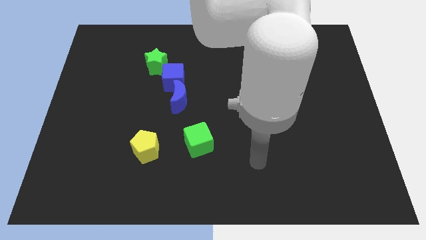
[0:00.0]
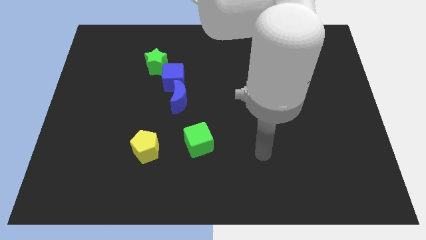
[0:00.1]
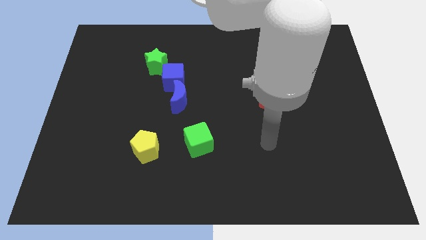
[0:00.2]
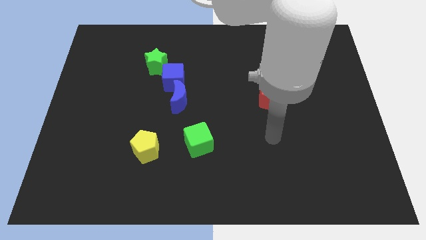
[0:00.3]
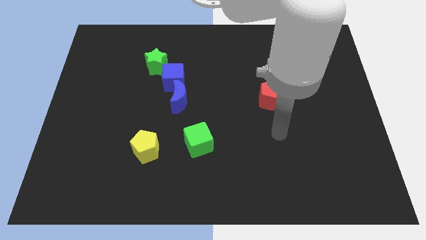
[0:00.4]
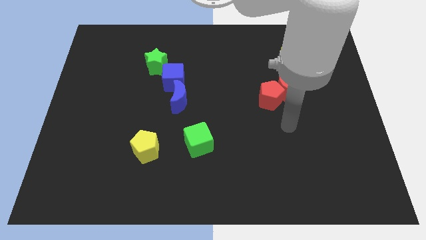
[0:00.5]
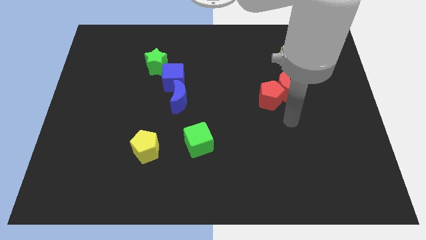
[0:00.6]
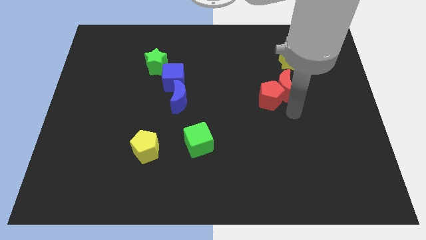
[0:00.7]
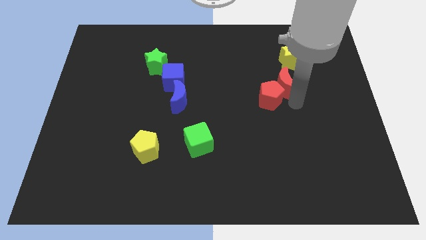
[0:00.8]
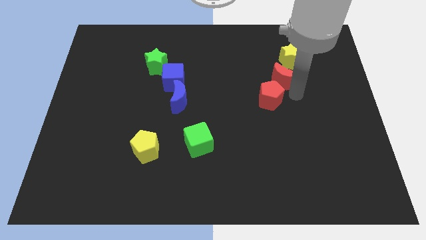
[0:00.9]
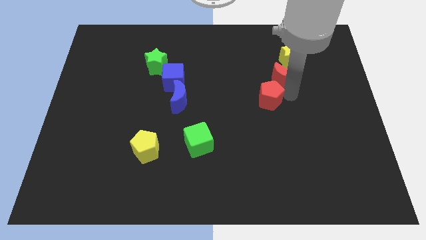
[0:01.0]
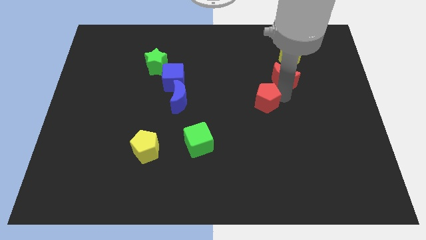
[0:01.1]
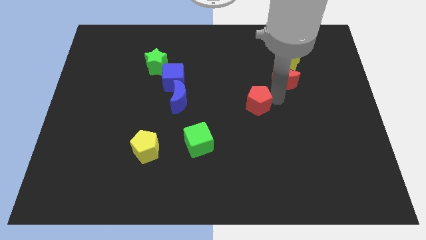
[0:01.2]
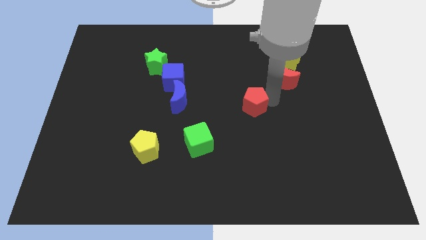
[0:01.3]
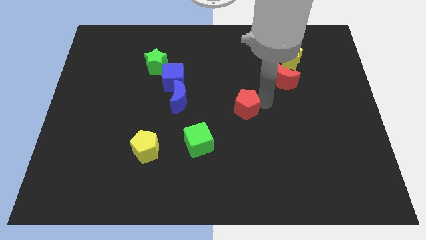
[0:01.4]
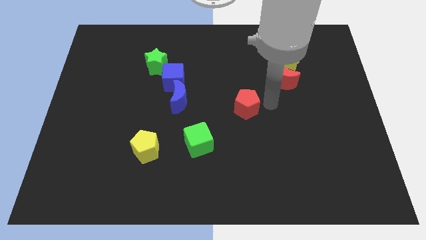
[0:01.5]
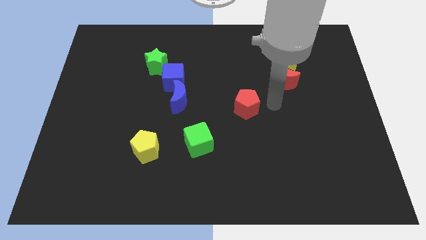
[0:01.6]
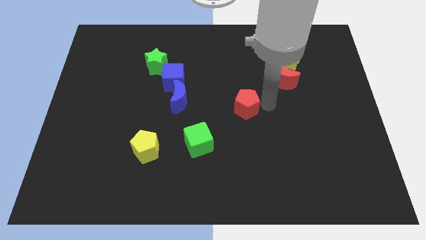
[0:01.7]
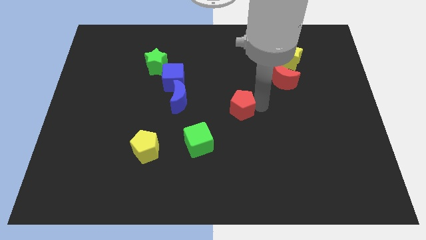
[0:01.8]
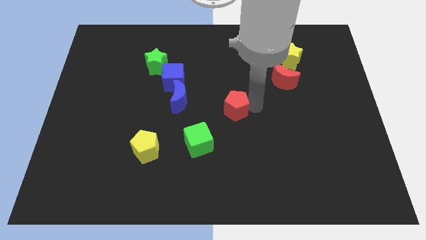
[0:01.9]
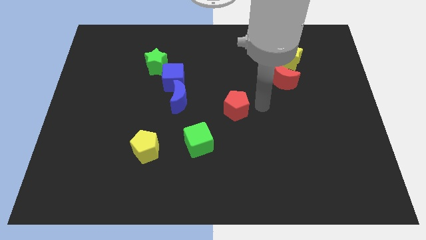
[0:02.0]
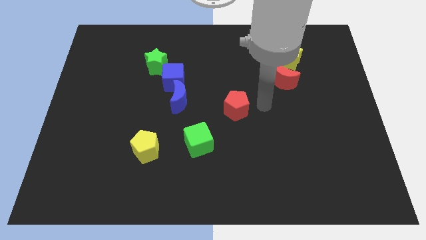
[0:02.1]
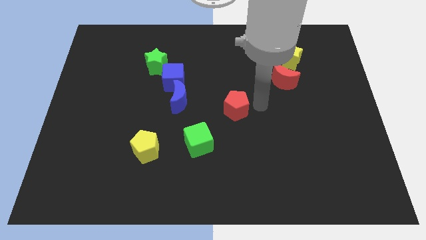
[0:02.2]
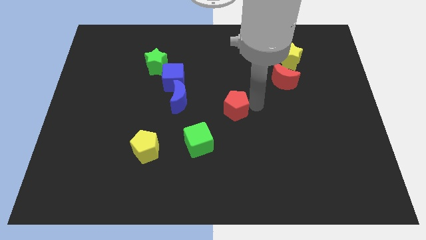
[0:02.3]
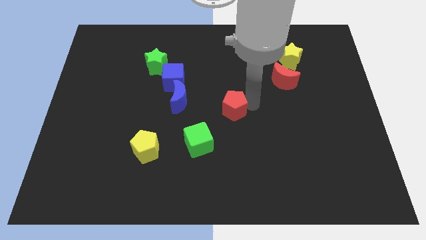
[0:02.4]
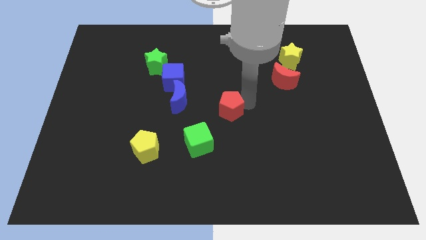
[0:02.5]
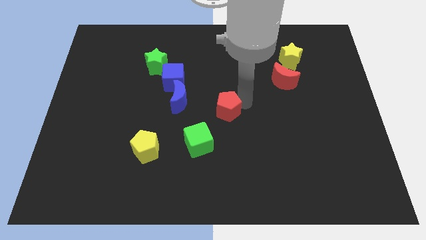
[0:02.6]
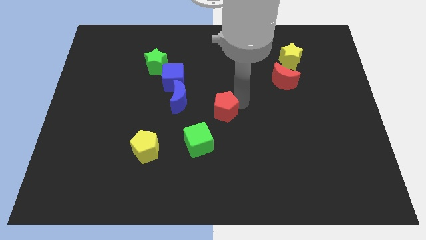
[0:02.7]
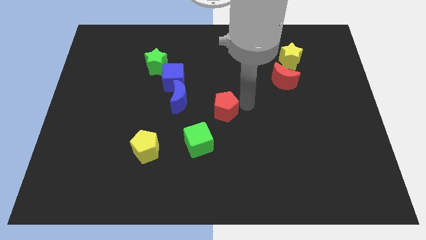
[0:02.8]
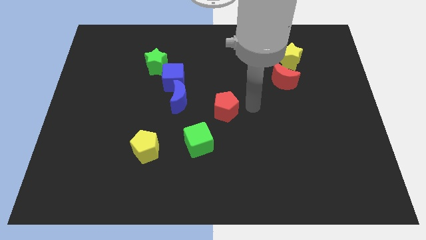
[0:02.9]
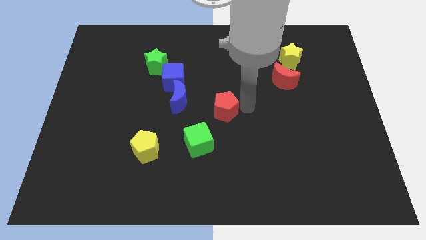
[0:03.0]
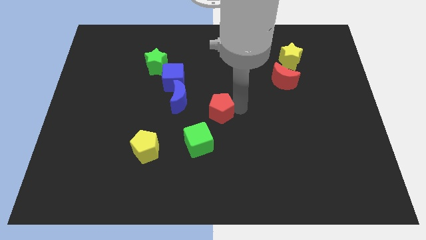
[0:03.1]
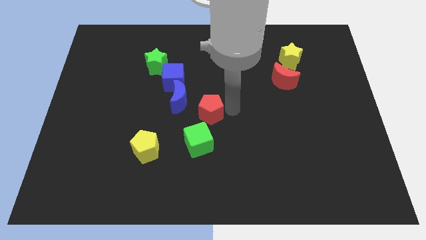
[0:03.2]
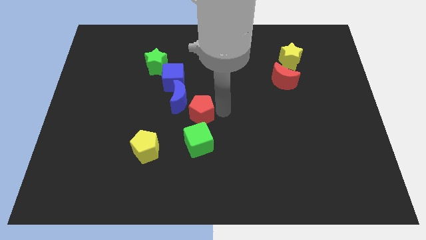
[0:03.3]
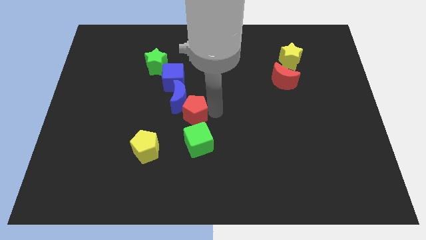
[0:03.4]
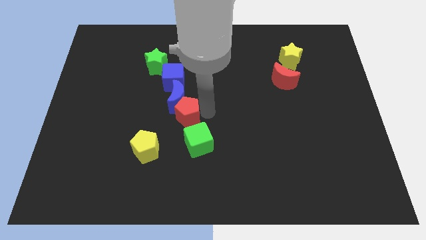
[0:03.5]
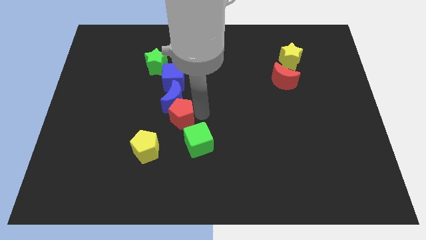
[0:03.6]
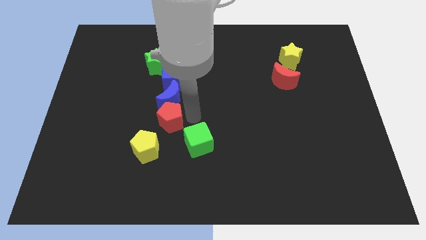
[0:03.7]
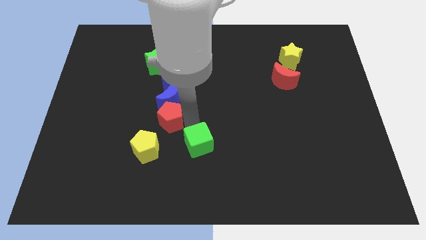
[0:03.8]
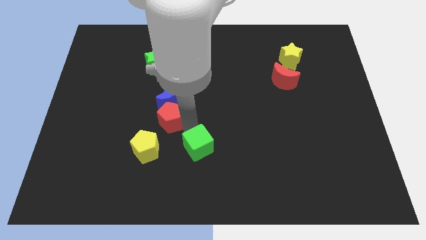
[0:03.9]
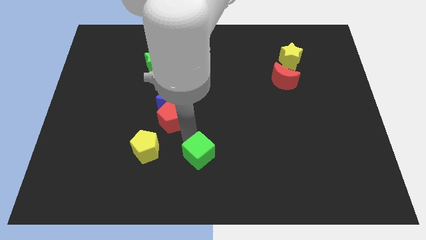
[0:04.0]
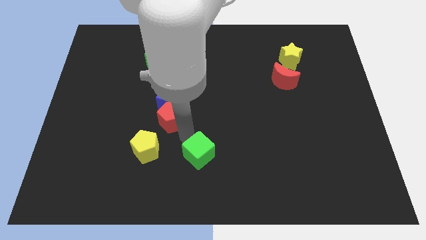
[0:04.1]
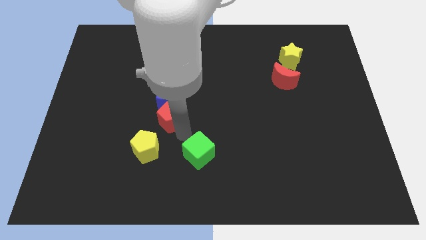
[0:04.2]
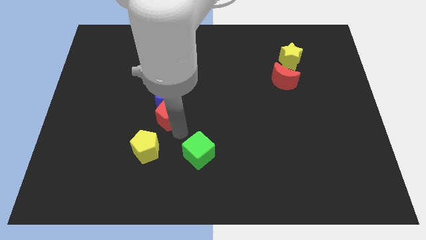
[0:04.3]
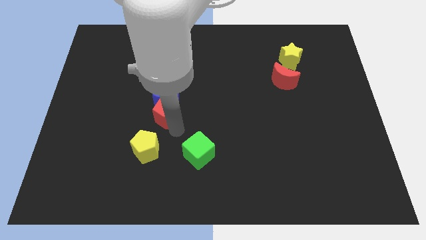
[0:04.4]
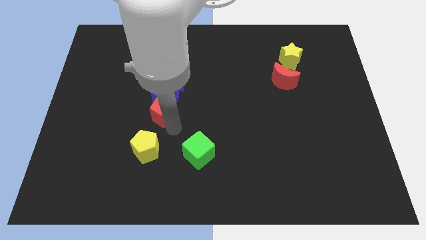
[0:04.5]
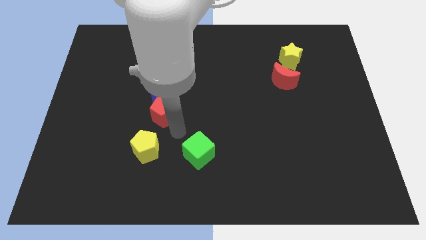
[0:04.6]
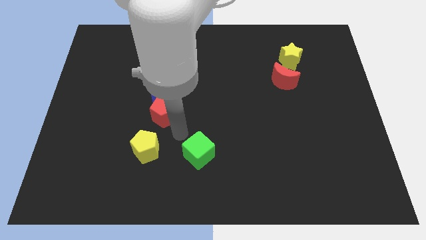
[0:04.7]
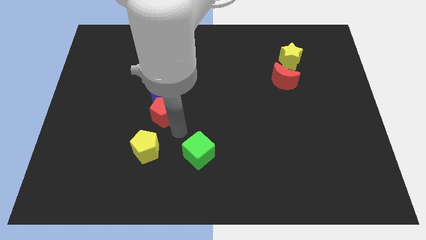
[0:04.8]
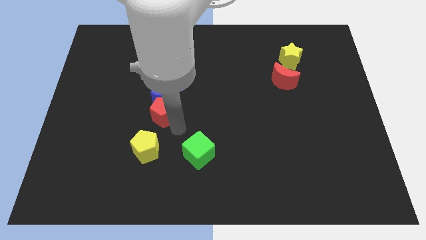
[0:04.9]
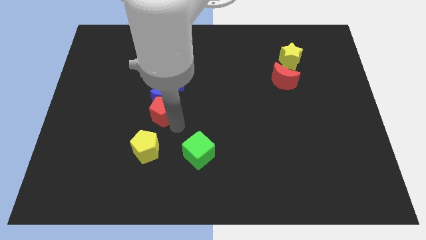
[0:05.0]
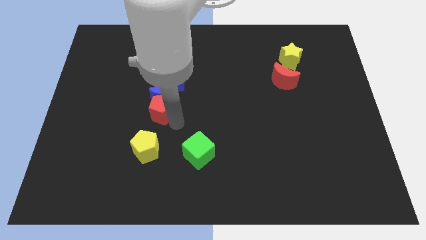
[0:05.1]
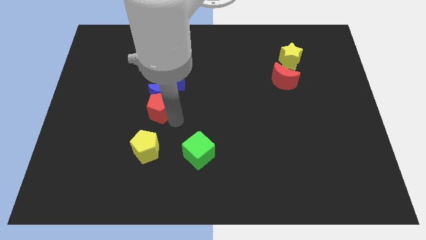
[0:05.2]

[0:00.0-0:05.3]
put the red pentagon diagonally down and to the left of the blue cube

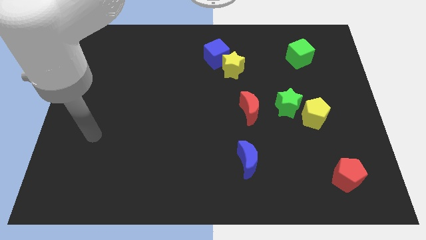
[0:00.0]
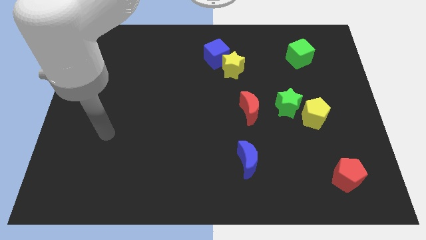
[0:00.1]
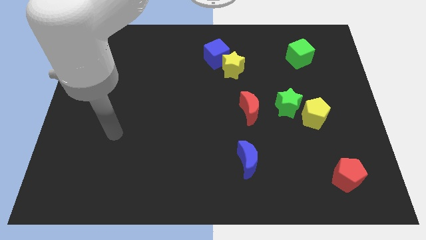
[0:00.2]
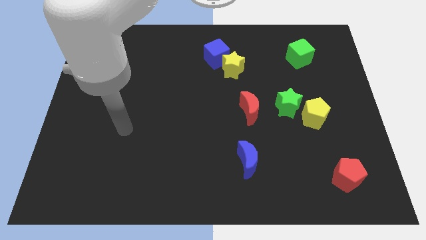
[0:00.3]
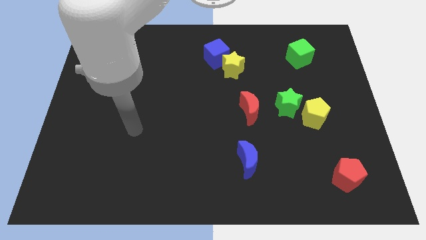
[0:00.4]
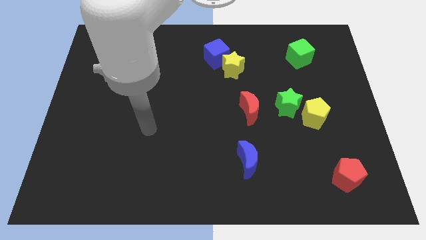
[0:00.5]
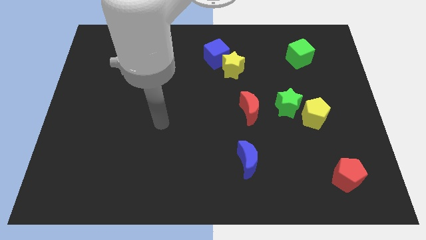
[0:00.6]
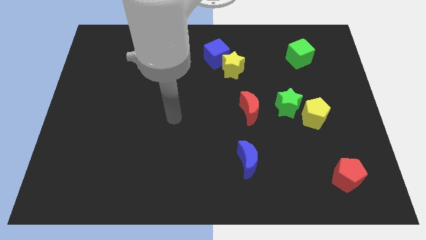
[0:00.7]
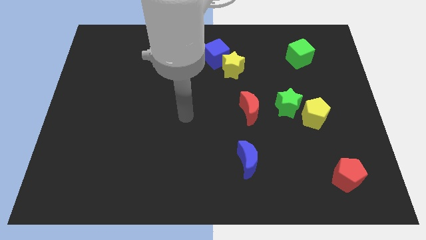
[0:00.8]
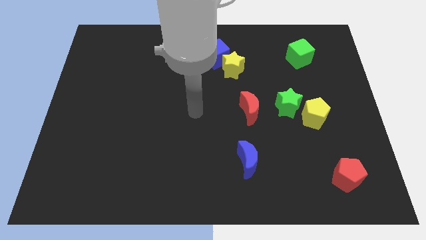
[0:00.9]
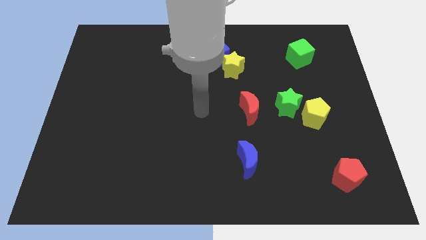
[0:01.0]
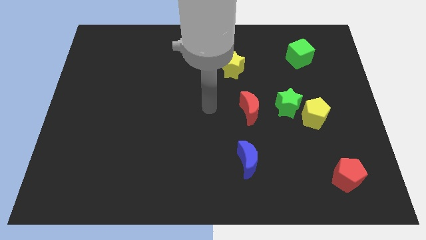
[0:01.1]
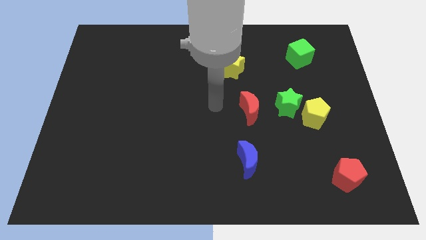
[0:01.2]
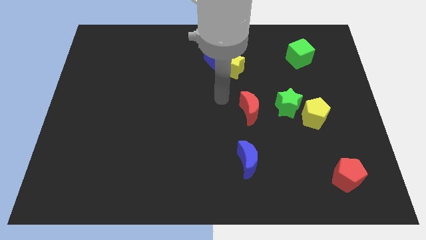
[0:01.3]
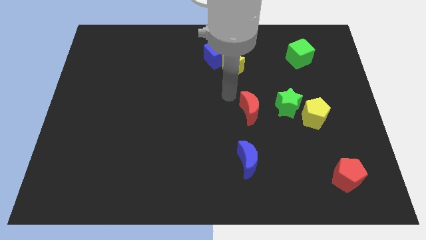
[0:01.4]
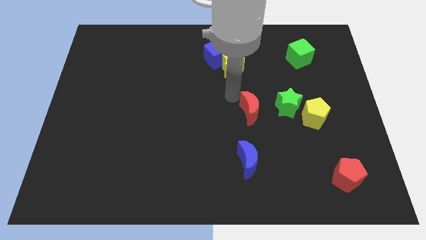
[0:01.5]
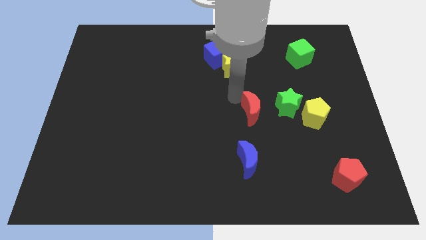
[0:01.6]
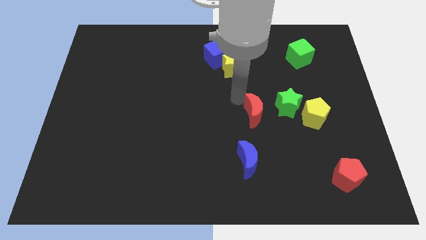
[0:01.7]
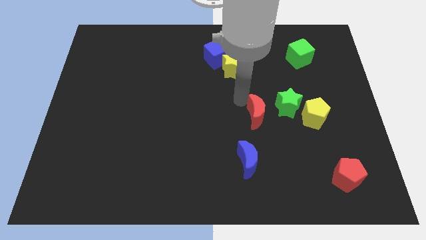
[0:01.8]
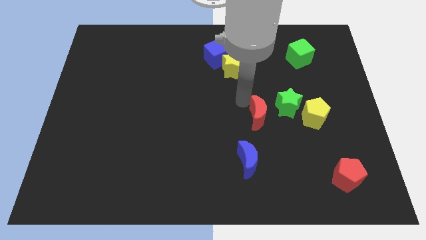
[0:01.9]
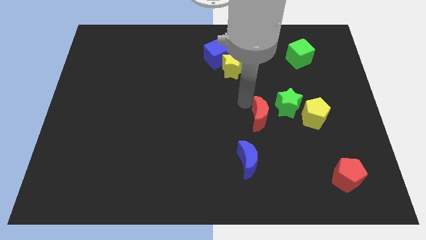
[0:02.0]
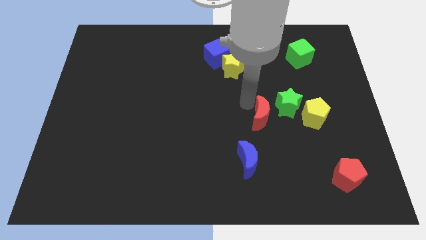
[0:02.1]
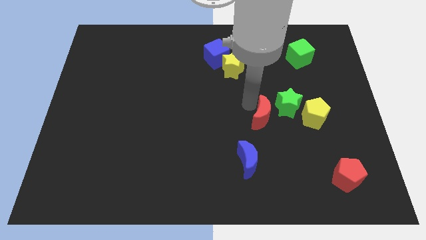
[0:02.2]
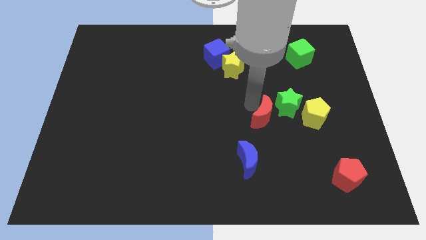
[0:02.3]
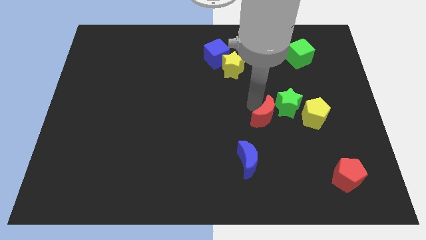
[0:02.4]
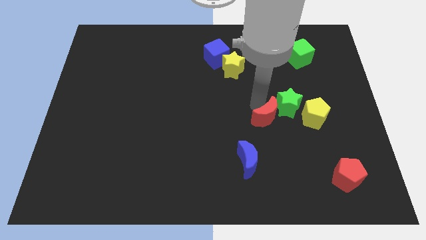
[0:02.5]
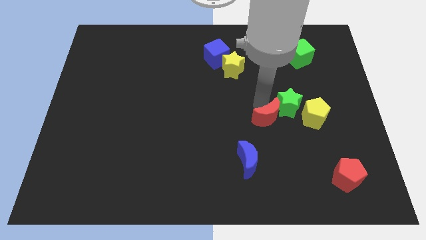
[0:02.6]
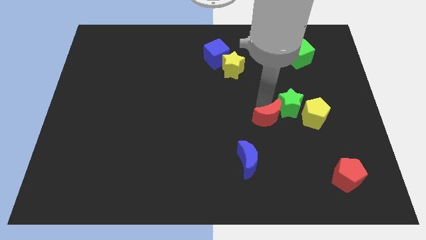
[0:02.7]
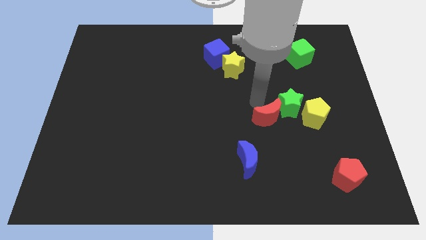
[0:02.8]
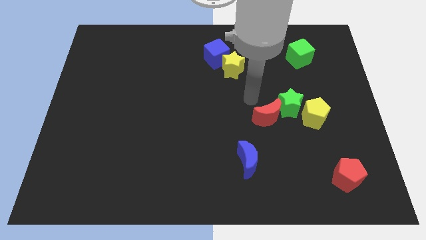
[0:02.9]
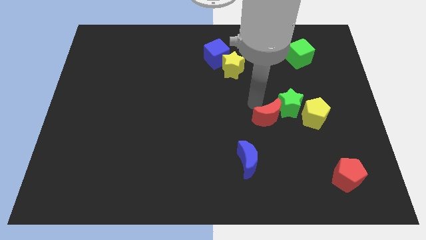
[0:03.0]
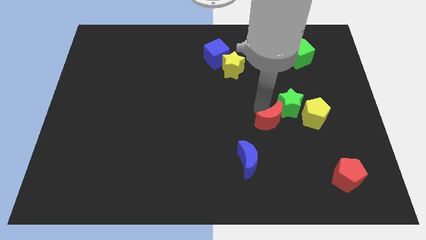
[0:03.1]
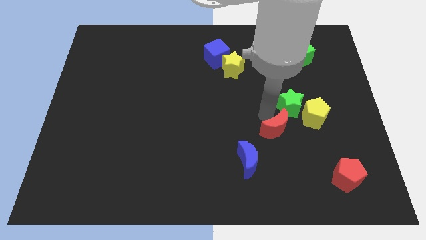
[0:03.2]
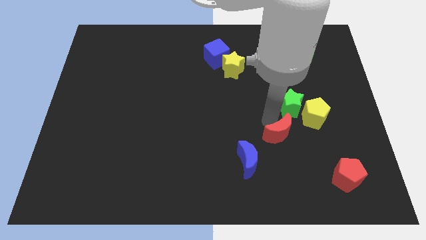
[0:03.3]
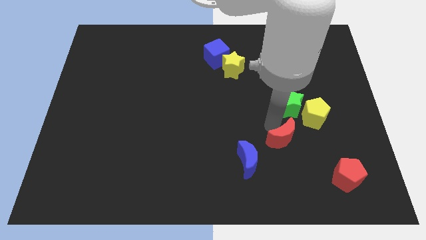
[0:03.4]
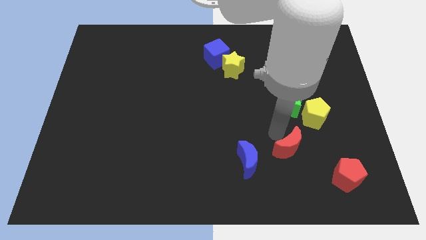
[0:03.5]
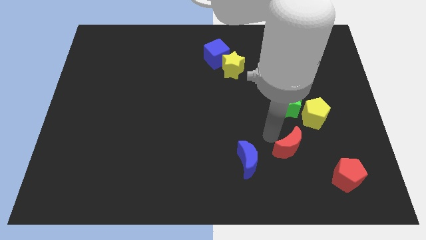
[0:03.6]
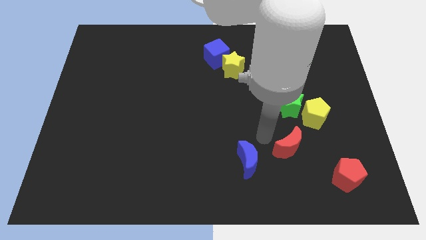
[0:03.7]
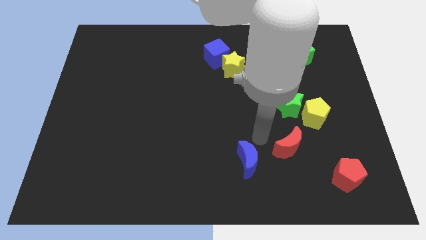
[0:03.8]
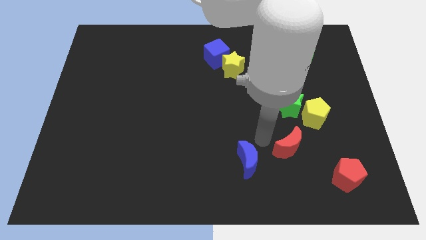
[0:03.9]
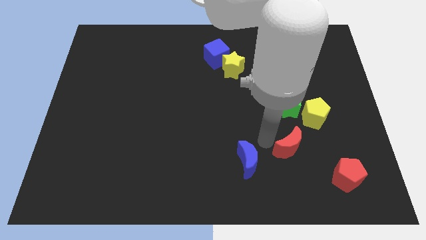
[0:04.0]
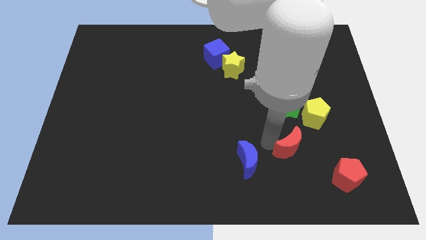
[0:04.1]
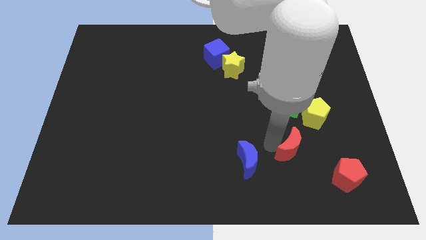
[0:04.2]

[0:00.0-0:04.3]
put the red moon to the top left of the red pentagon
